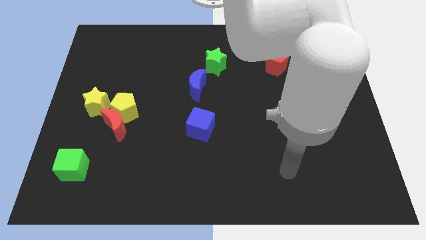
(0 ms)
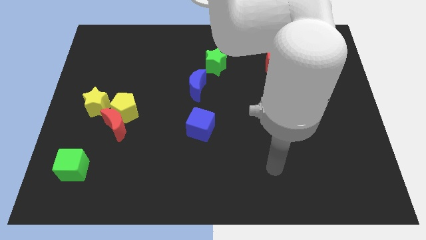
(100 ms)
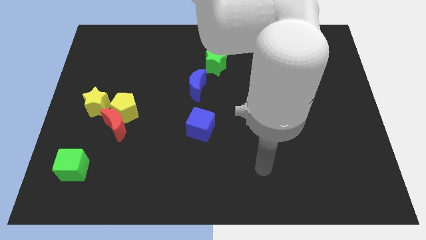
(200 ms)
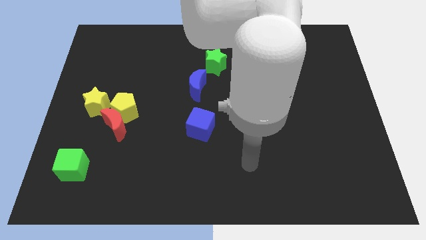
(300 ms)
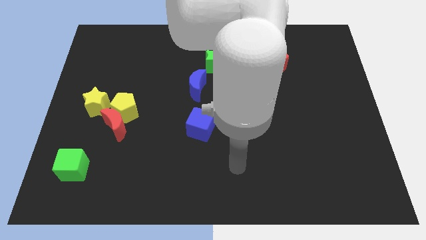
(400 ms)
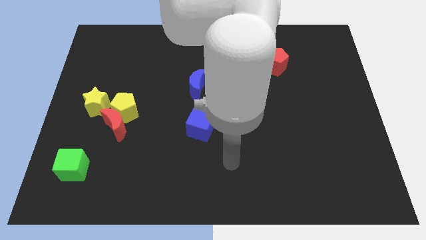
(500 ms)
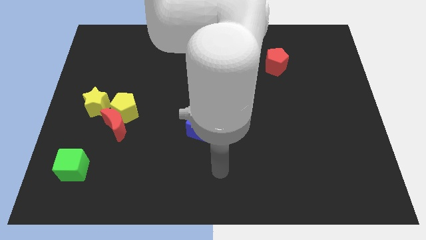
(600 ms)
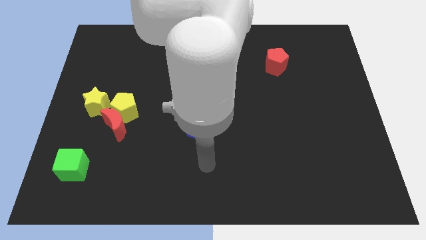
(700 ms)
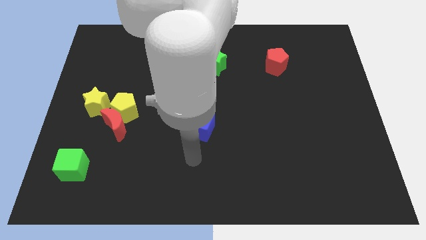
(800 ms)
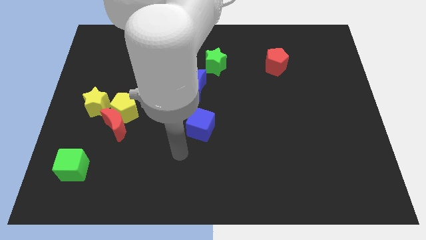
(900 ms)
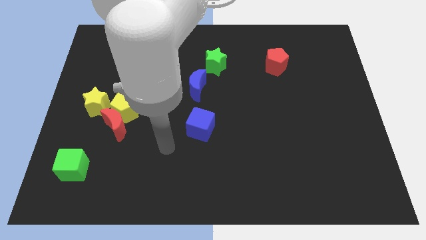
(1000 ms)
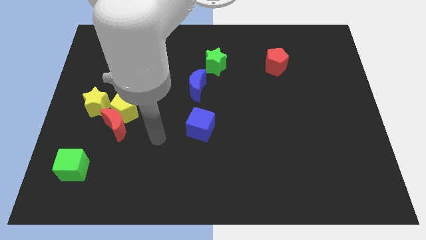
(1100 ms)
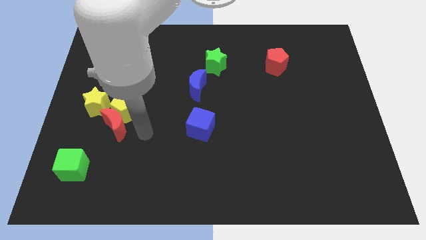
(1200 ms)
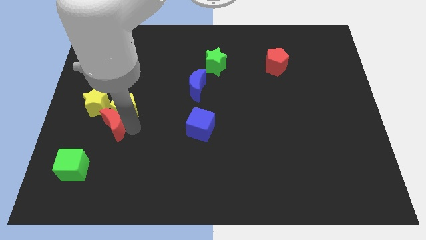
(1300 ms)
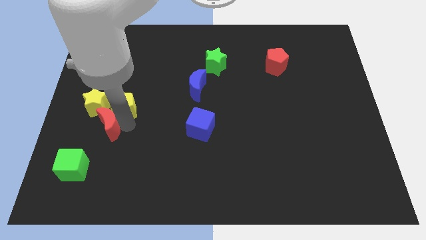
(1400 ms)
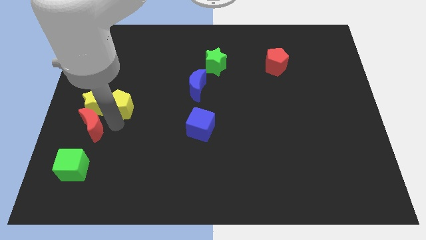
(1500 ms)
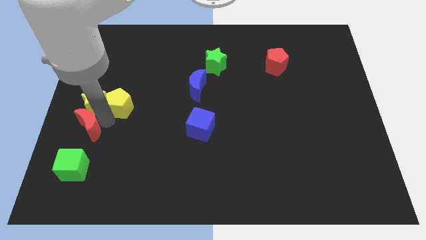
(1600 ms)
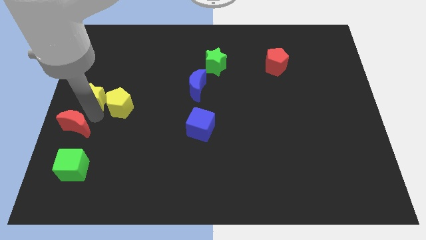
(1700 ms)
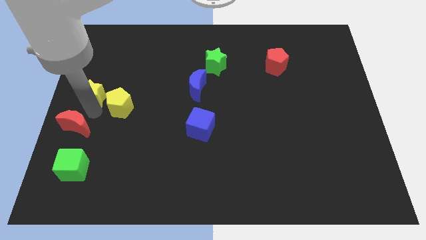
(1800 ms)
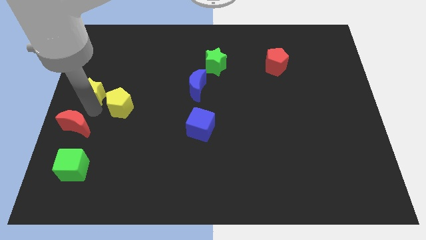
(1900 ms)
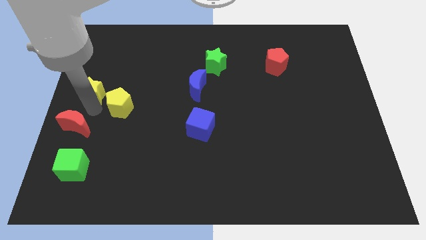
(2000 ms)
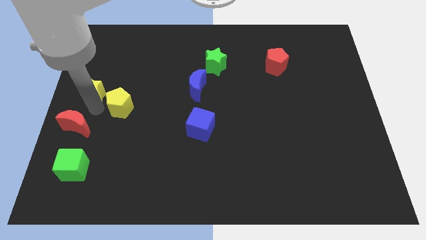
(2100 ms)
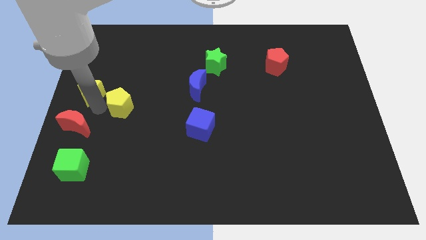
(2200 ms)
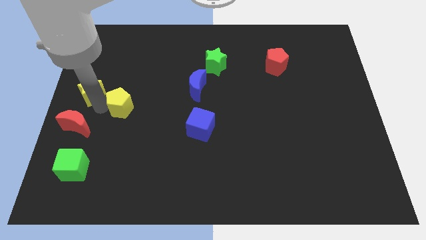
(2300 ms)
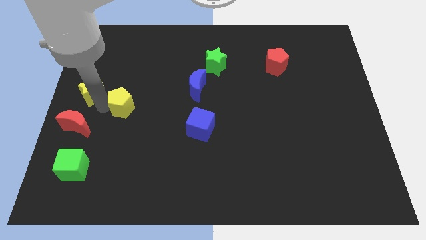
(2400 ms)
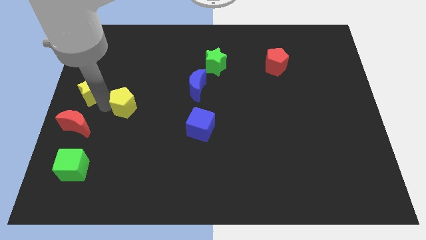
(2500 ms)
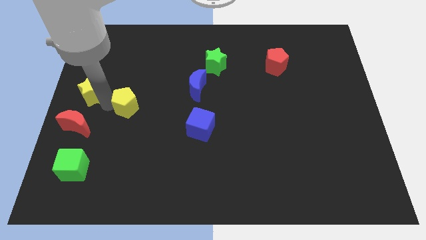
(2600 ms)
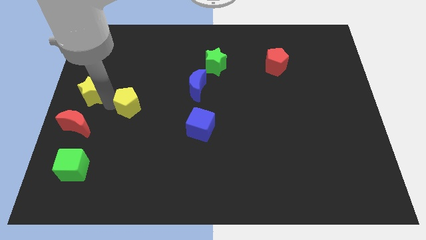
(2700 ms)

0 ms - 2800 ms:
pull the yellow pentagon apart from the red moon and yellow star

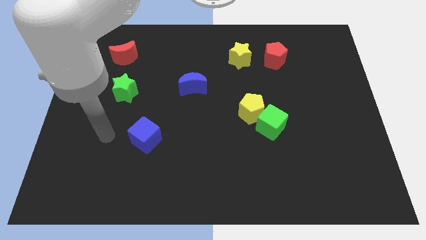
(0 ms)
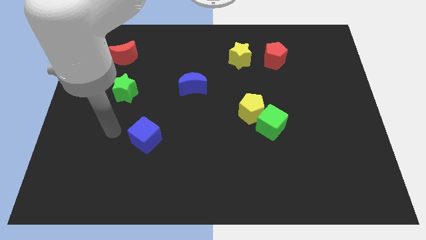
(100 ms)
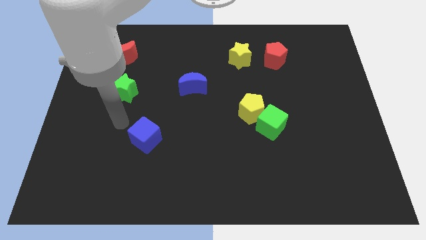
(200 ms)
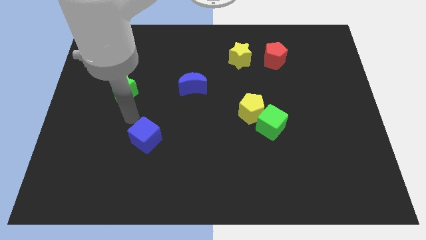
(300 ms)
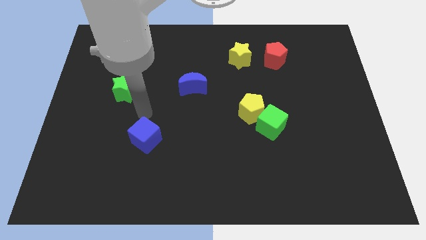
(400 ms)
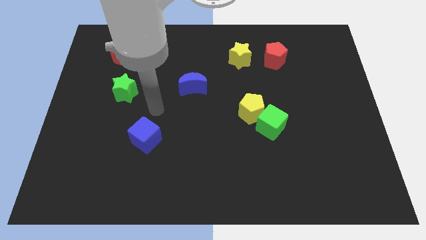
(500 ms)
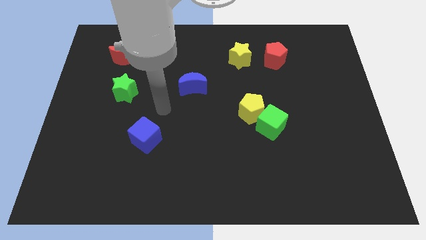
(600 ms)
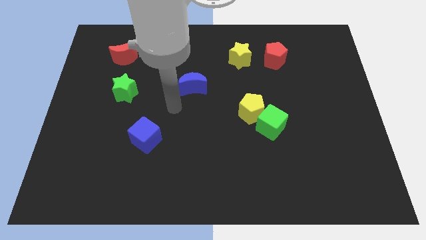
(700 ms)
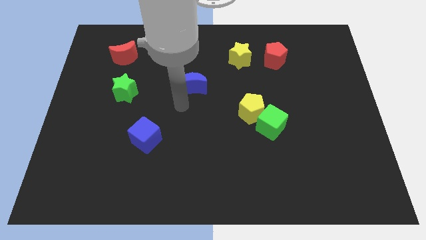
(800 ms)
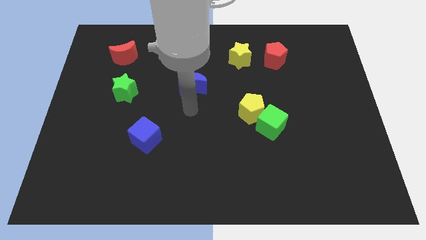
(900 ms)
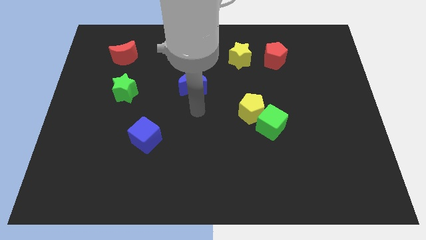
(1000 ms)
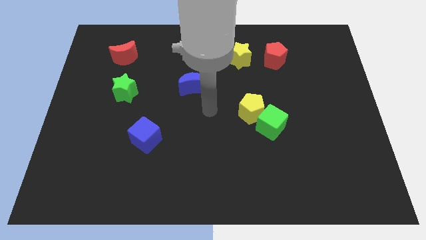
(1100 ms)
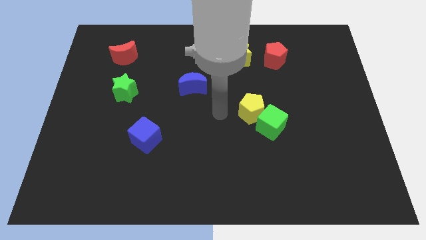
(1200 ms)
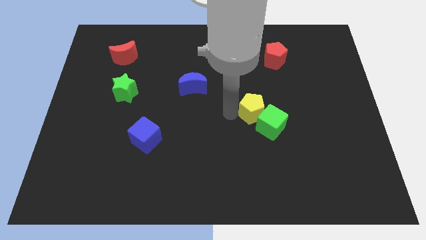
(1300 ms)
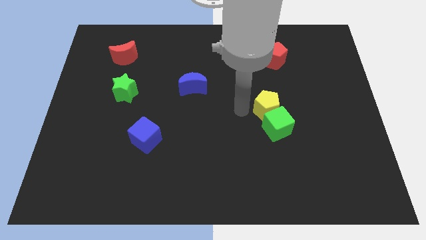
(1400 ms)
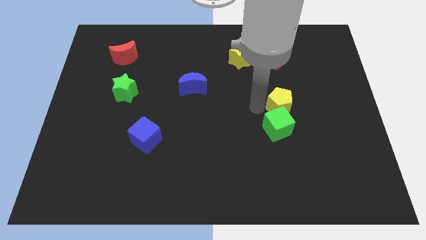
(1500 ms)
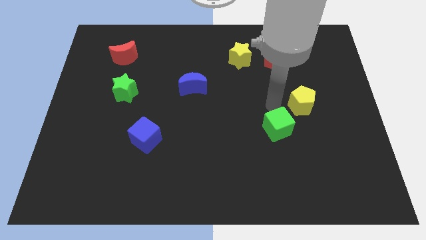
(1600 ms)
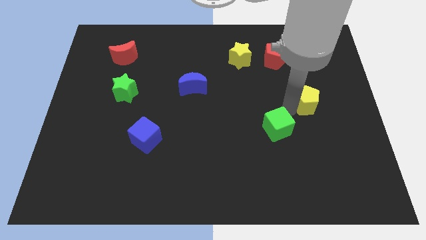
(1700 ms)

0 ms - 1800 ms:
pull the green cube apart from the yellow pentagon

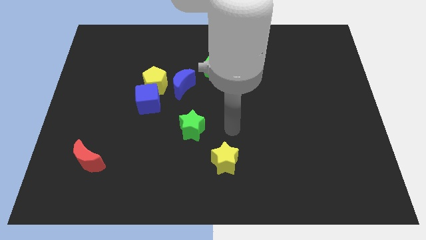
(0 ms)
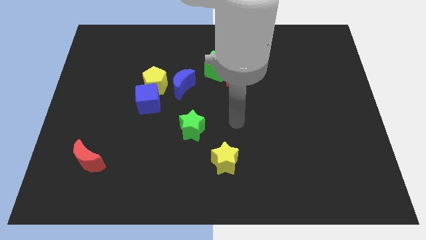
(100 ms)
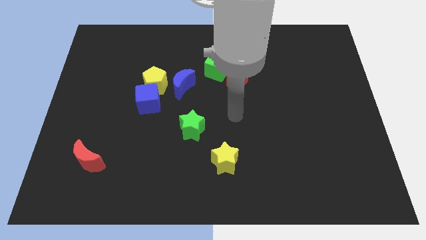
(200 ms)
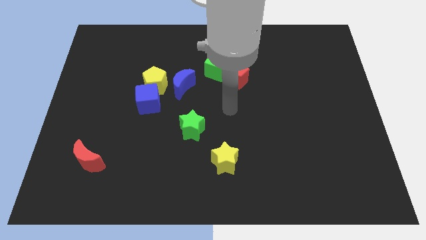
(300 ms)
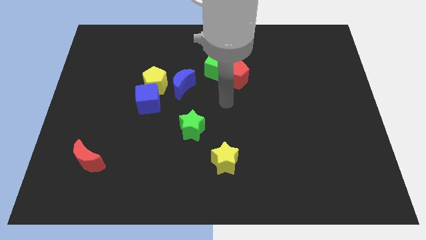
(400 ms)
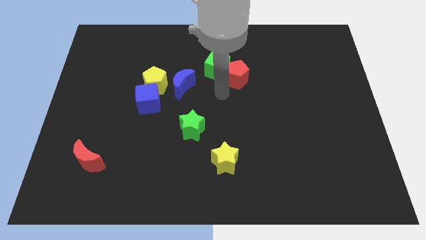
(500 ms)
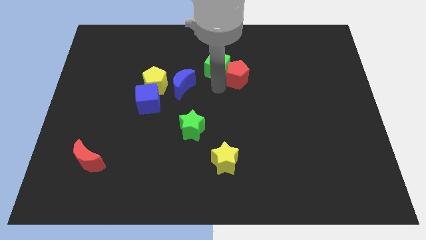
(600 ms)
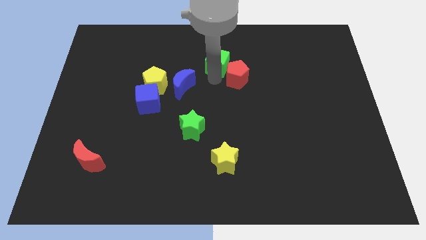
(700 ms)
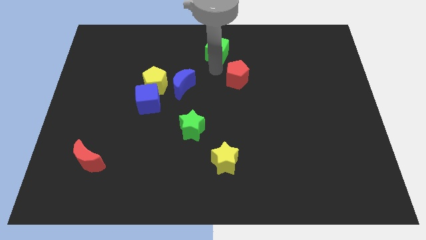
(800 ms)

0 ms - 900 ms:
separate the red pentagon from the green cube

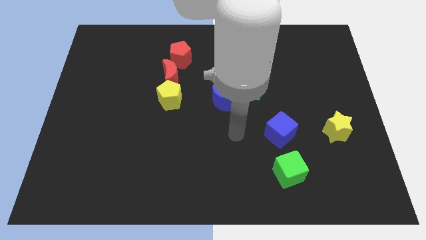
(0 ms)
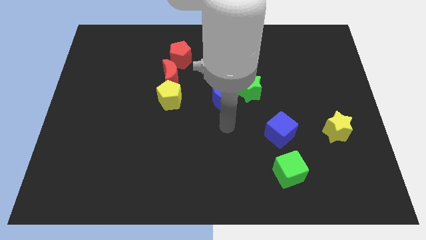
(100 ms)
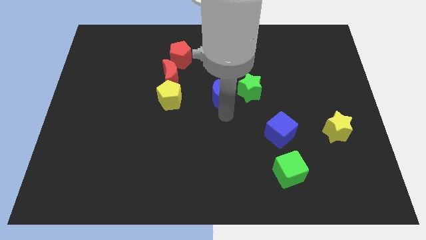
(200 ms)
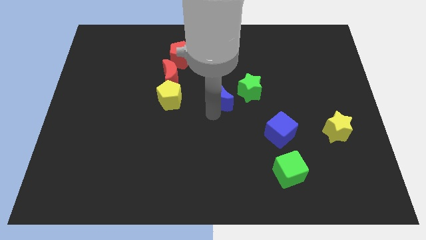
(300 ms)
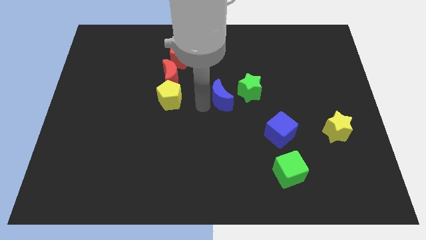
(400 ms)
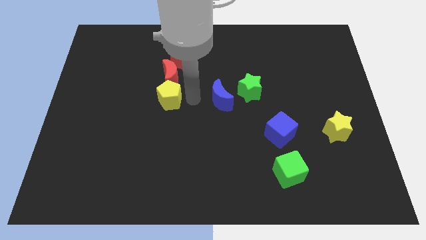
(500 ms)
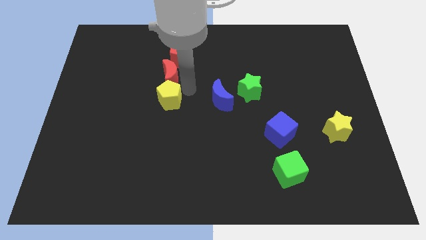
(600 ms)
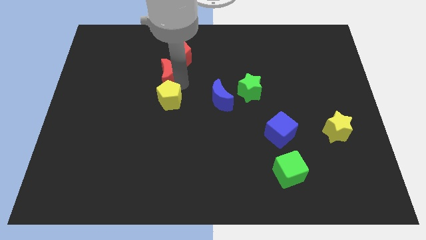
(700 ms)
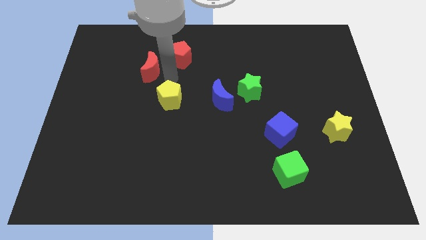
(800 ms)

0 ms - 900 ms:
move the yellow pentagon away from the red moon

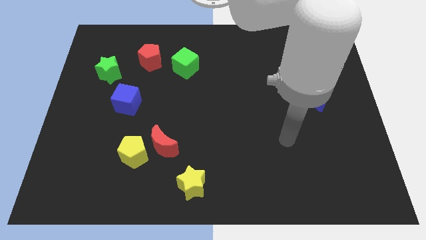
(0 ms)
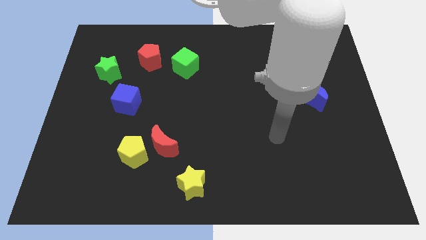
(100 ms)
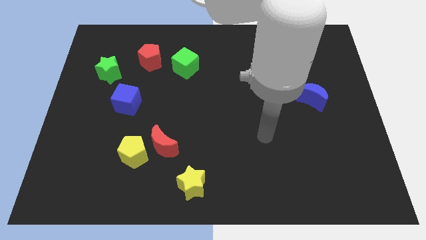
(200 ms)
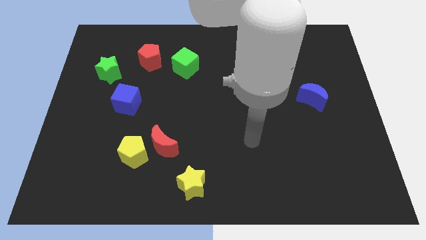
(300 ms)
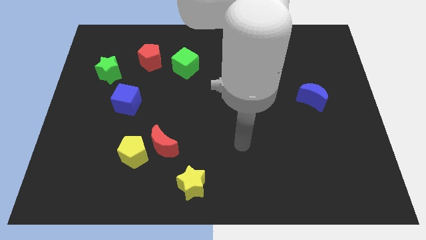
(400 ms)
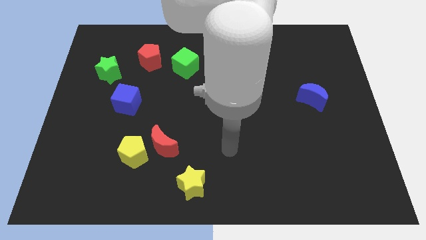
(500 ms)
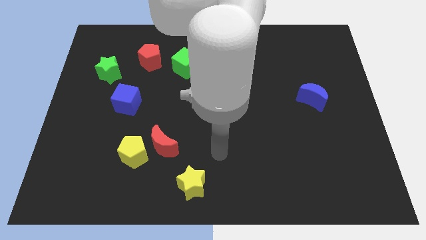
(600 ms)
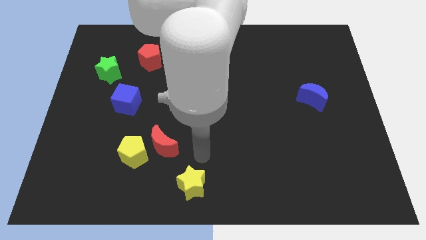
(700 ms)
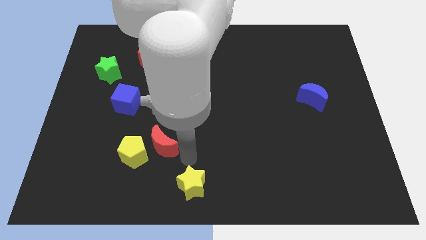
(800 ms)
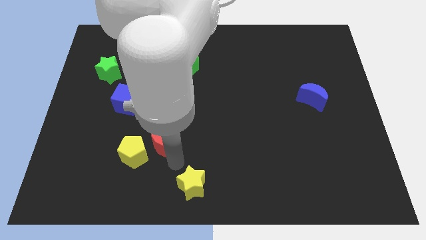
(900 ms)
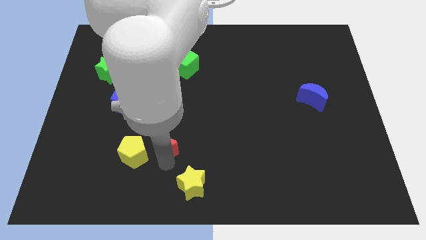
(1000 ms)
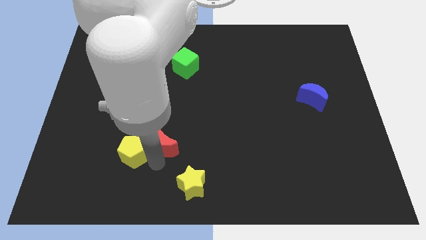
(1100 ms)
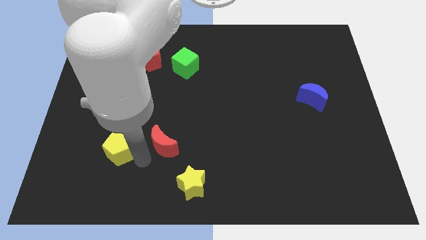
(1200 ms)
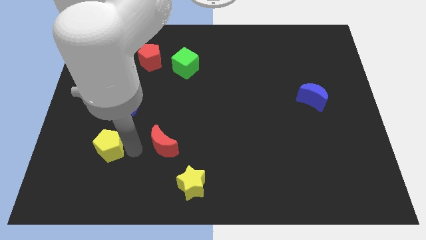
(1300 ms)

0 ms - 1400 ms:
separate the red moon from the yellow pentagon

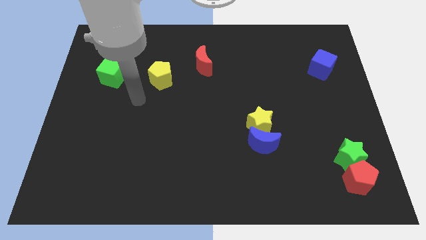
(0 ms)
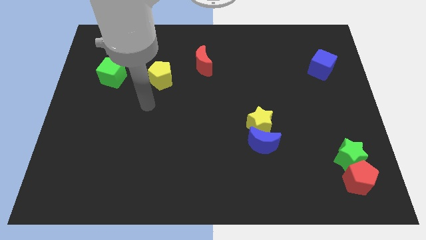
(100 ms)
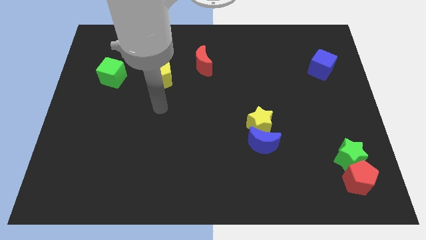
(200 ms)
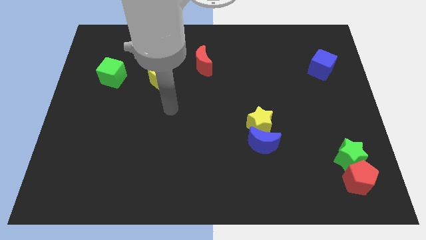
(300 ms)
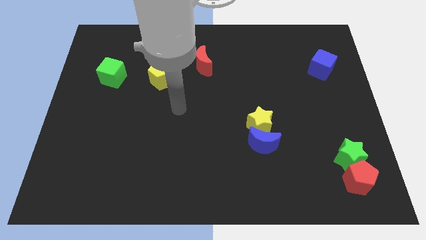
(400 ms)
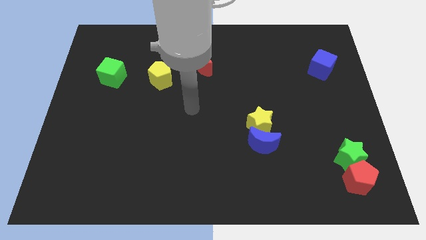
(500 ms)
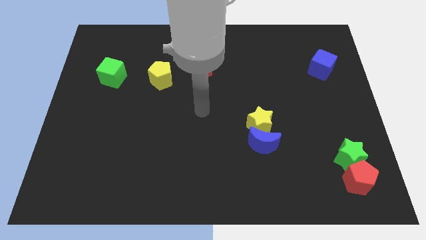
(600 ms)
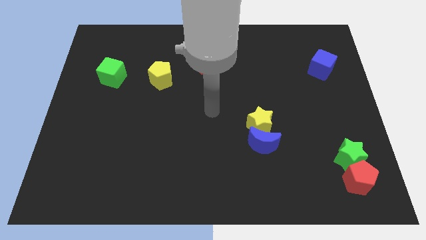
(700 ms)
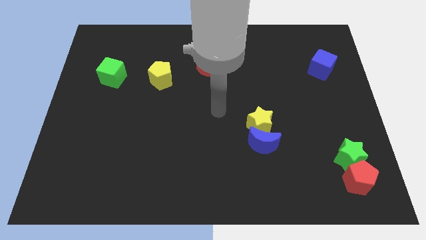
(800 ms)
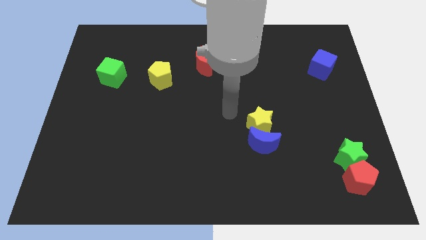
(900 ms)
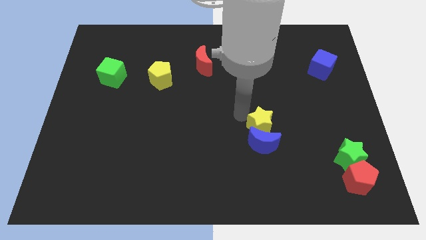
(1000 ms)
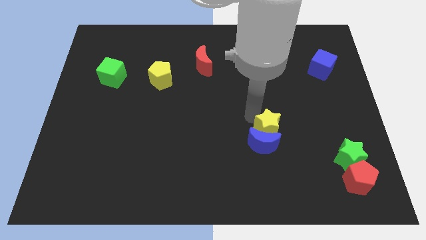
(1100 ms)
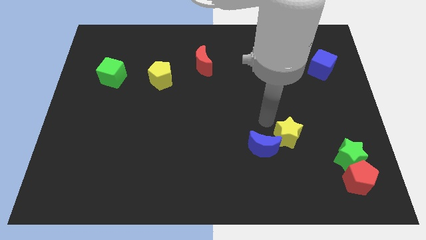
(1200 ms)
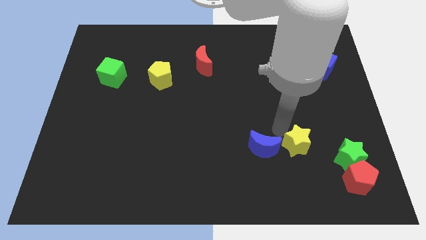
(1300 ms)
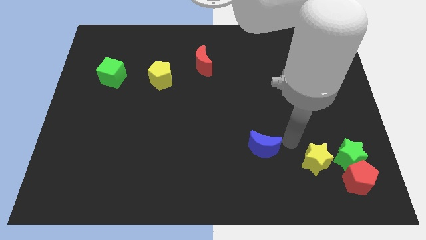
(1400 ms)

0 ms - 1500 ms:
pull the blue moon apart from the yellow star

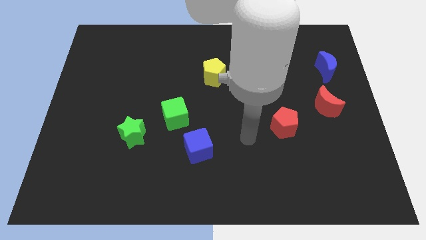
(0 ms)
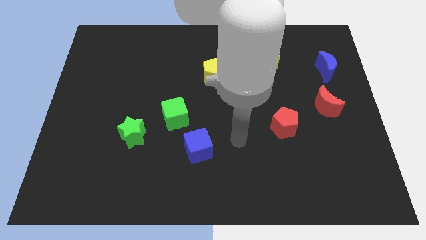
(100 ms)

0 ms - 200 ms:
separate the blue cube from the green cube

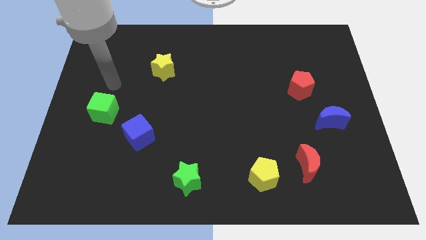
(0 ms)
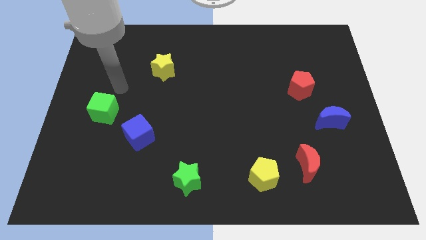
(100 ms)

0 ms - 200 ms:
pull the red moon apart from the yellow pentagon
